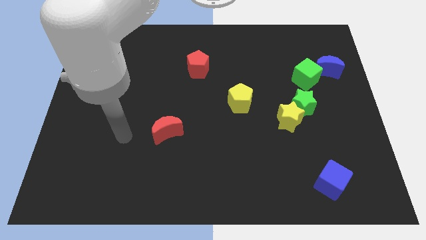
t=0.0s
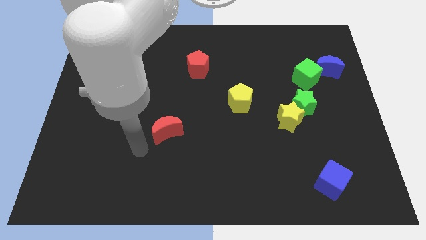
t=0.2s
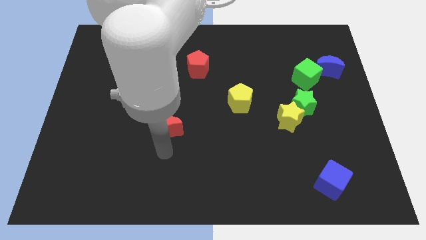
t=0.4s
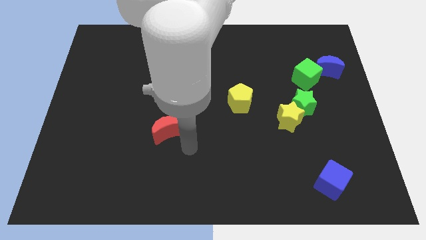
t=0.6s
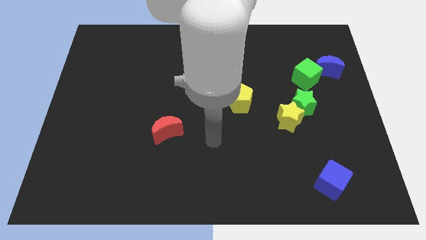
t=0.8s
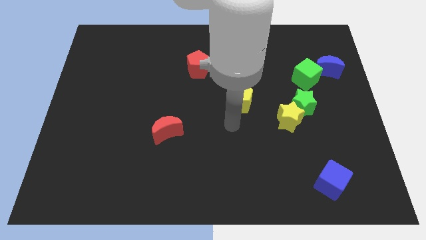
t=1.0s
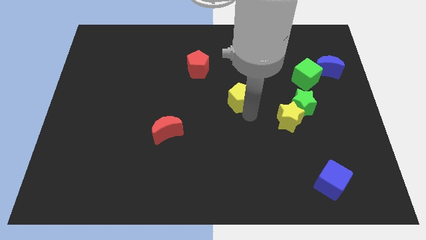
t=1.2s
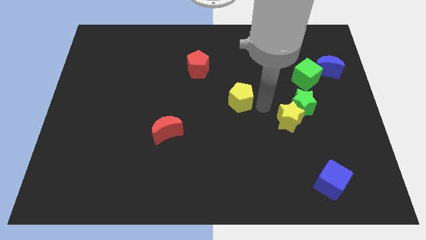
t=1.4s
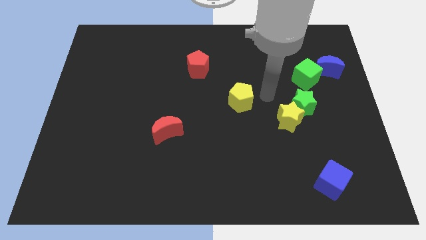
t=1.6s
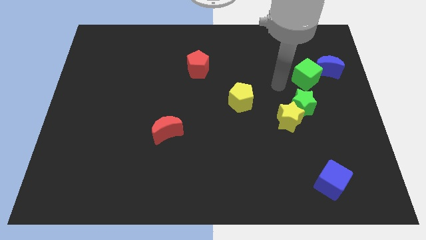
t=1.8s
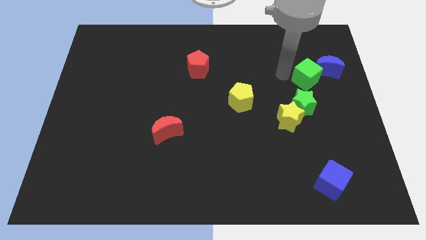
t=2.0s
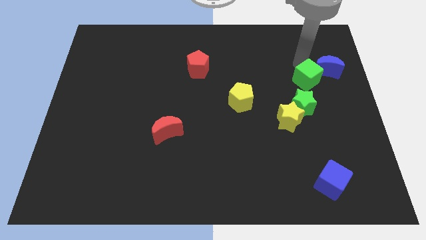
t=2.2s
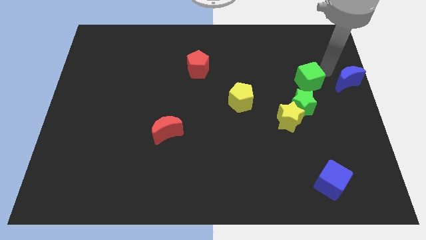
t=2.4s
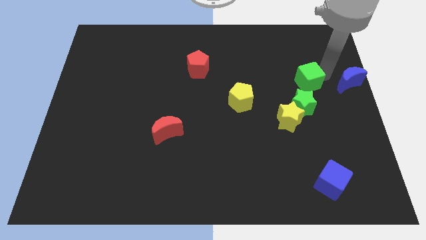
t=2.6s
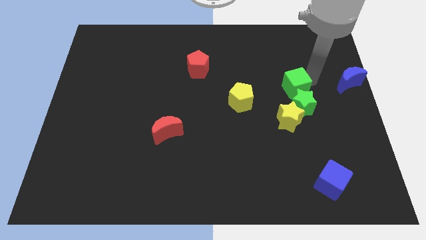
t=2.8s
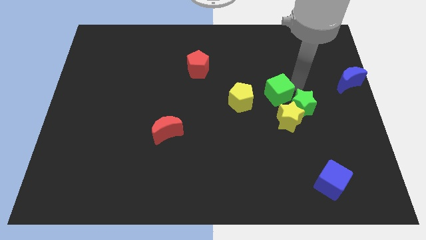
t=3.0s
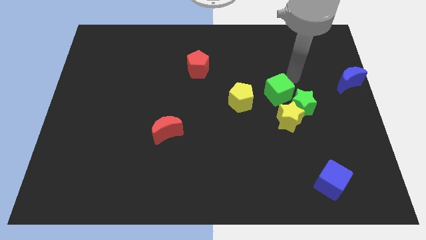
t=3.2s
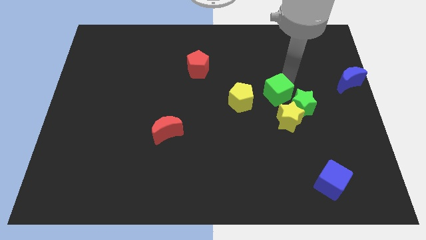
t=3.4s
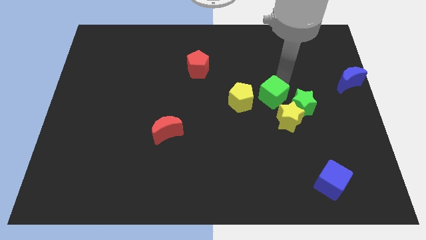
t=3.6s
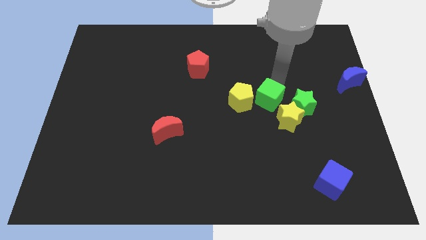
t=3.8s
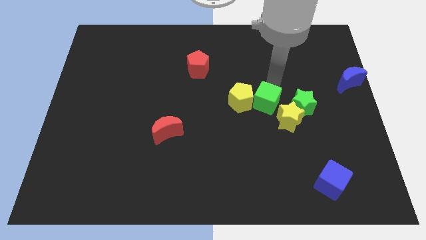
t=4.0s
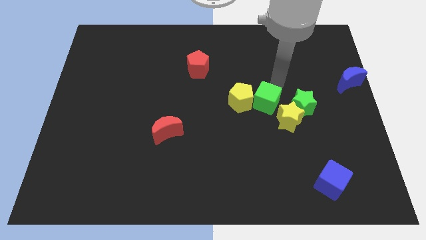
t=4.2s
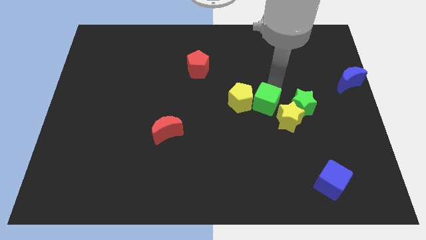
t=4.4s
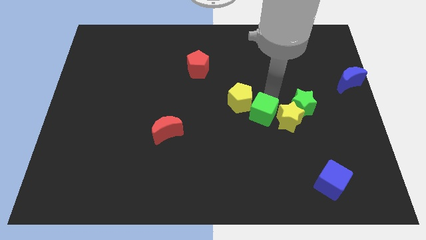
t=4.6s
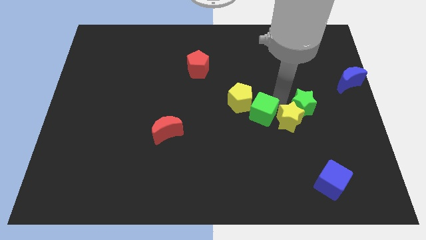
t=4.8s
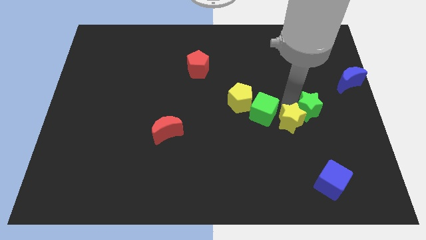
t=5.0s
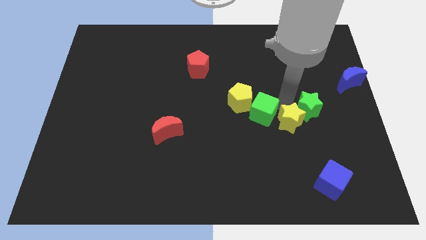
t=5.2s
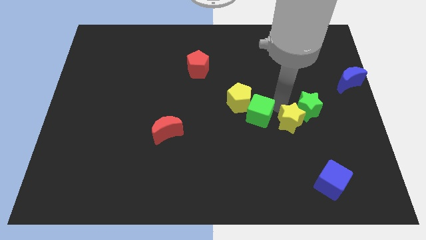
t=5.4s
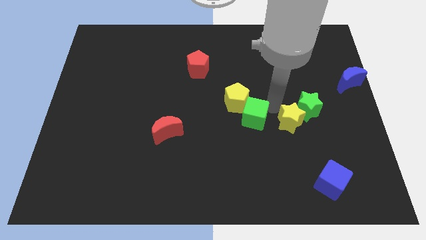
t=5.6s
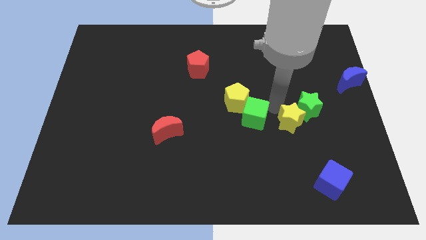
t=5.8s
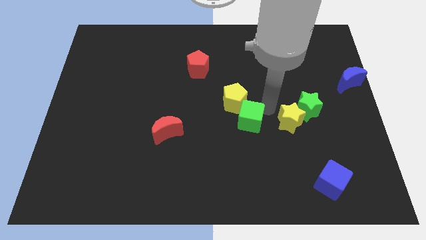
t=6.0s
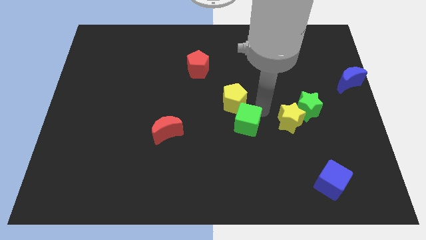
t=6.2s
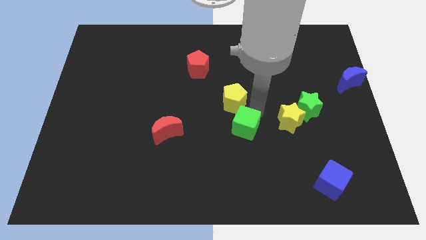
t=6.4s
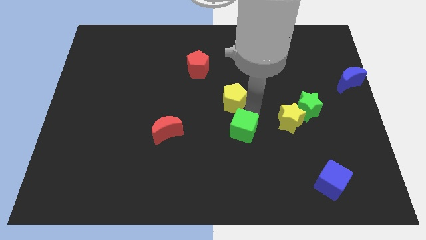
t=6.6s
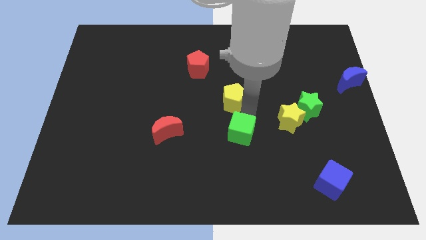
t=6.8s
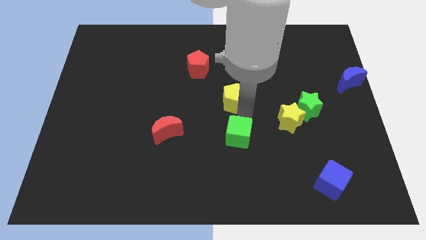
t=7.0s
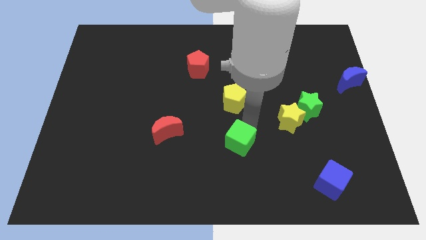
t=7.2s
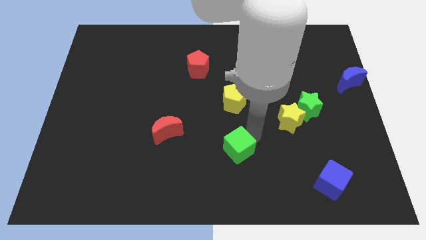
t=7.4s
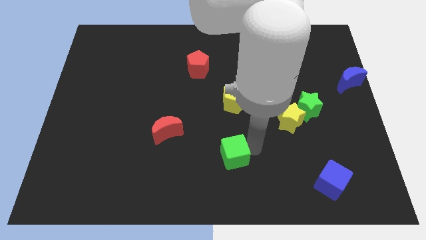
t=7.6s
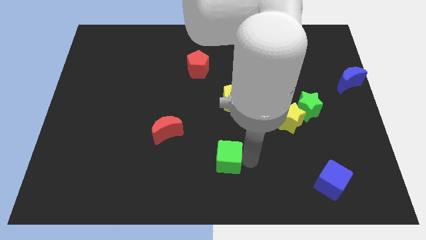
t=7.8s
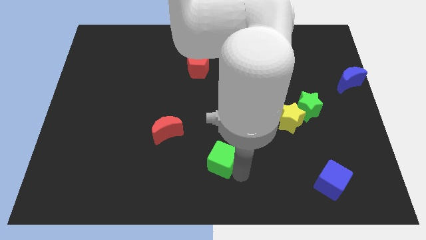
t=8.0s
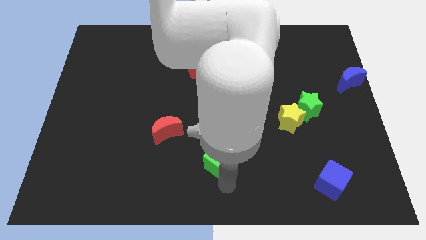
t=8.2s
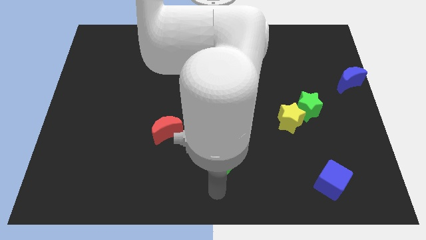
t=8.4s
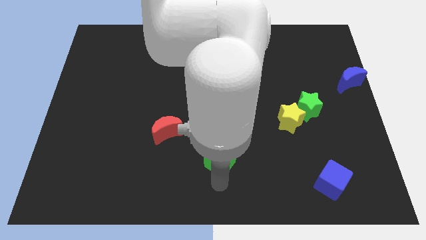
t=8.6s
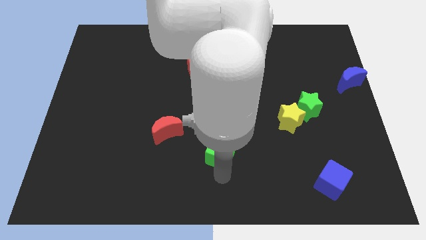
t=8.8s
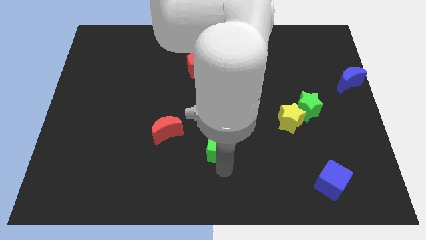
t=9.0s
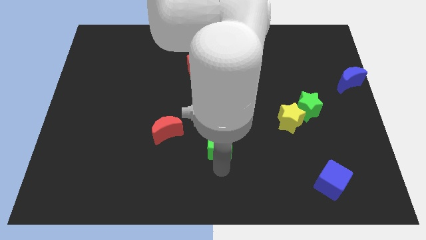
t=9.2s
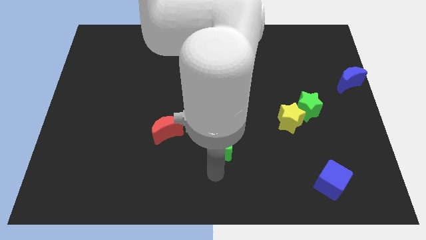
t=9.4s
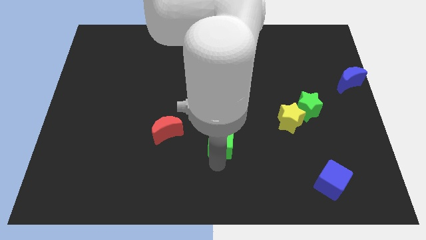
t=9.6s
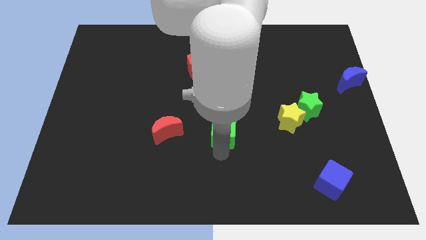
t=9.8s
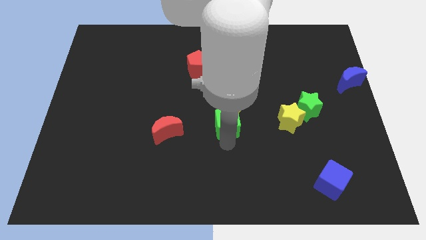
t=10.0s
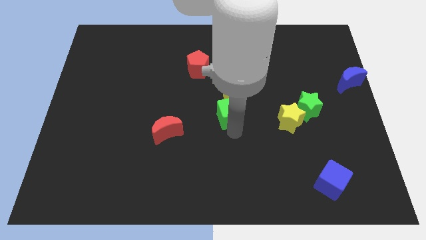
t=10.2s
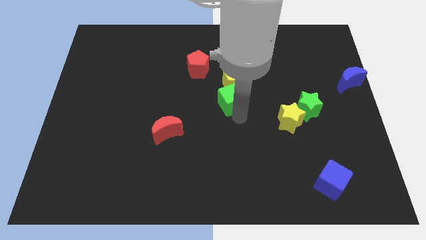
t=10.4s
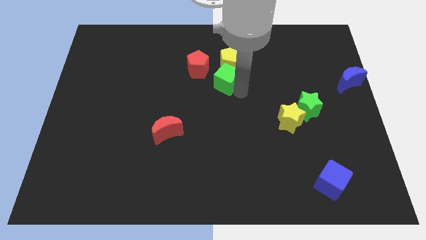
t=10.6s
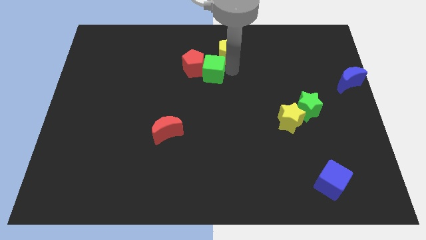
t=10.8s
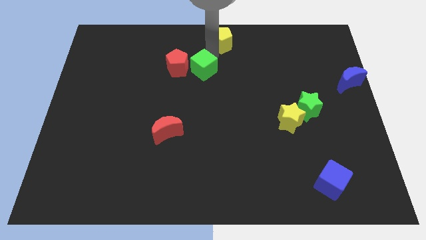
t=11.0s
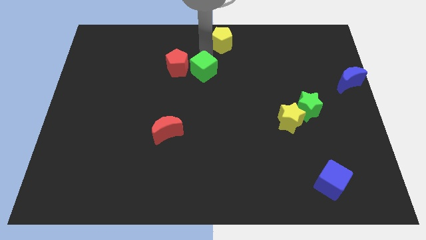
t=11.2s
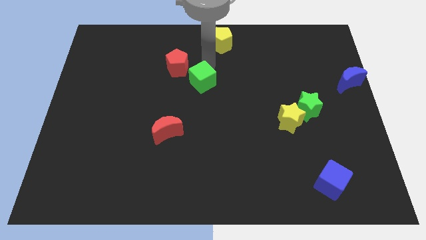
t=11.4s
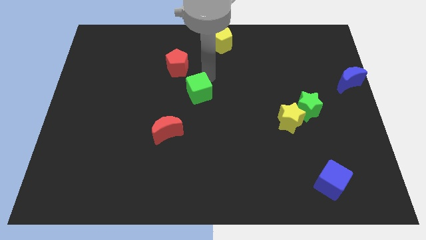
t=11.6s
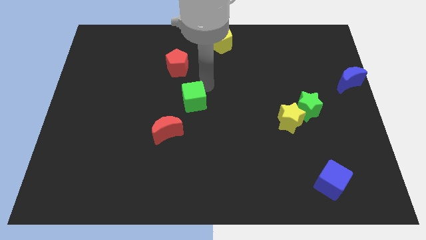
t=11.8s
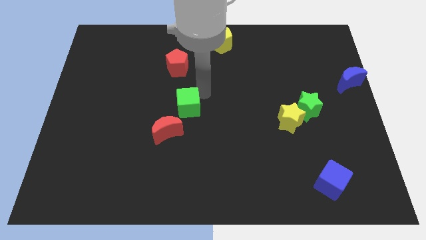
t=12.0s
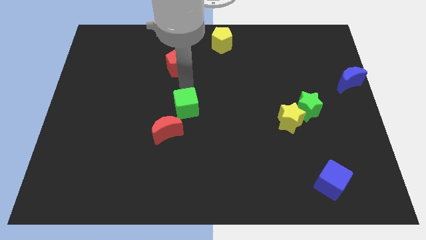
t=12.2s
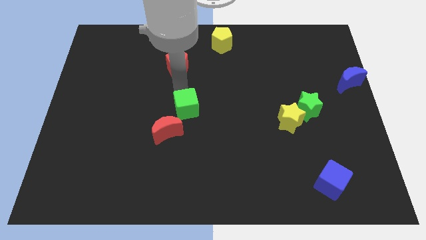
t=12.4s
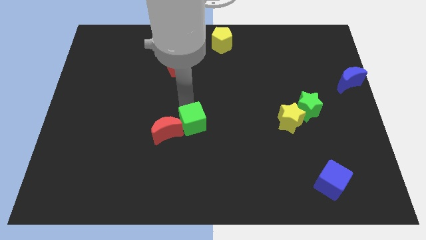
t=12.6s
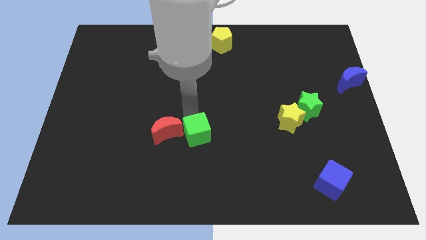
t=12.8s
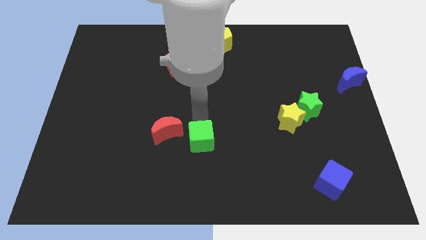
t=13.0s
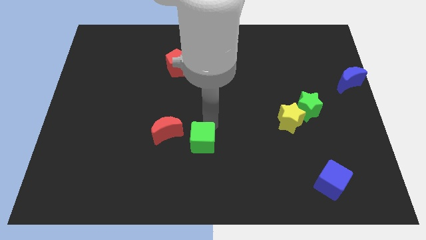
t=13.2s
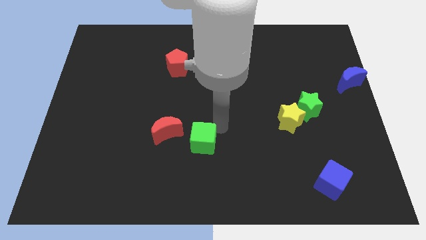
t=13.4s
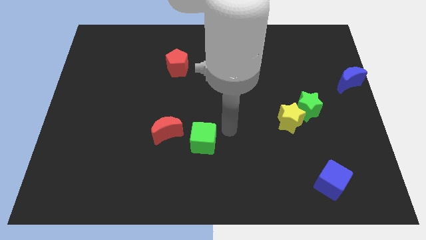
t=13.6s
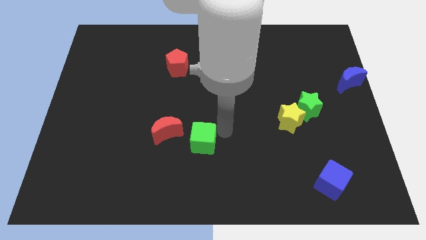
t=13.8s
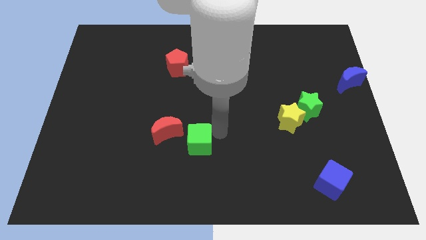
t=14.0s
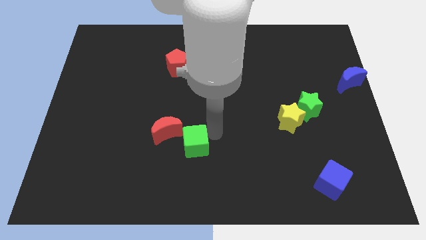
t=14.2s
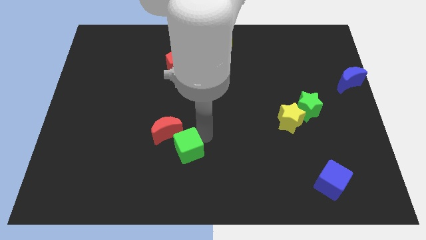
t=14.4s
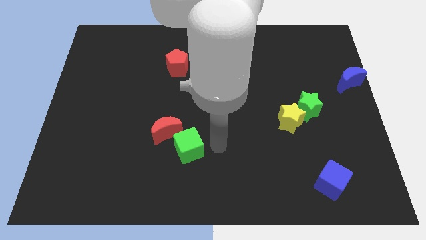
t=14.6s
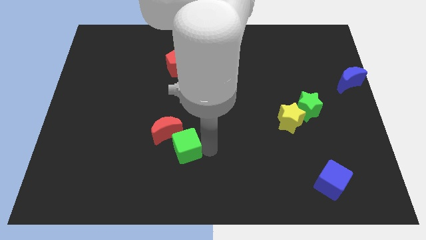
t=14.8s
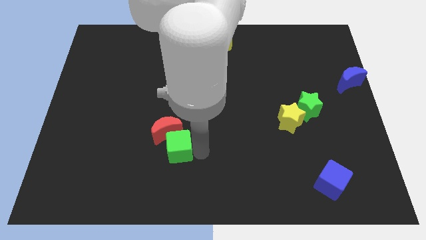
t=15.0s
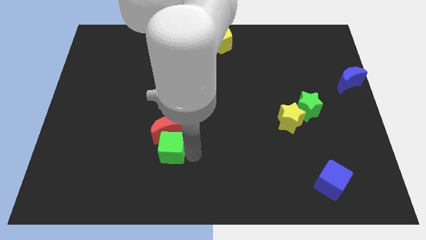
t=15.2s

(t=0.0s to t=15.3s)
slide the green cube diagonally down and to the left of the red moon

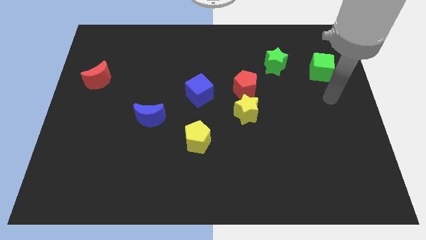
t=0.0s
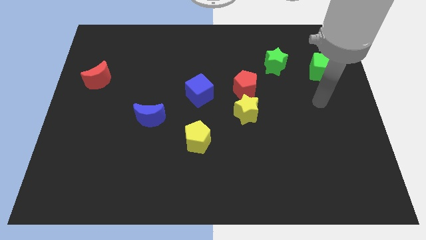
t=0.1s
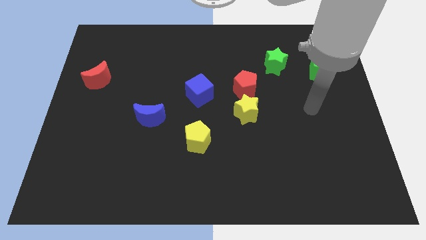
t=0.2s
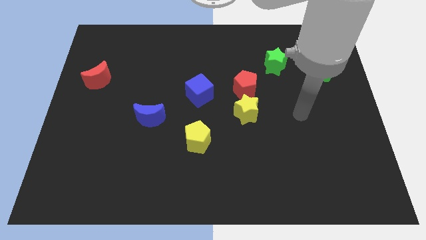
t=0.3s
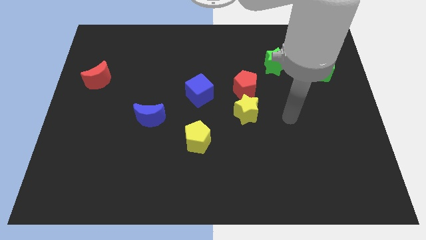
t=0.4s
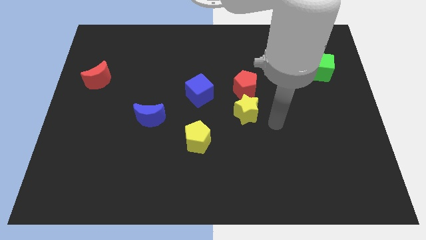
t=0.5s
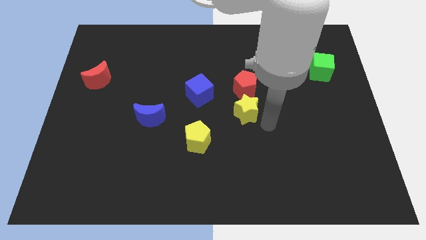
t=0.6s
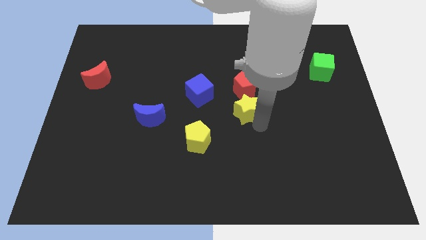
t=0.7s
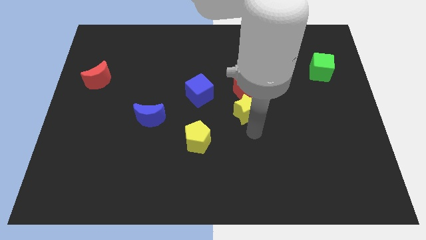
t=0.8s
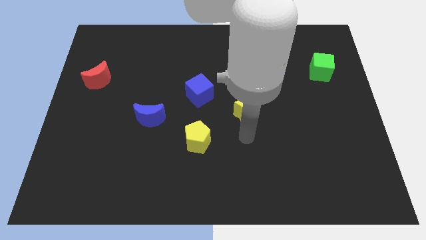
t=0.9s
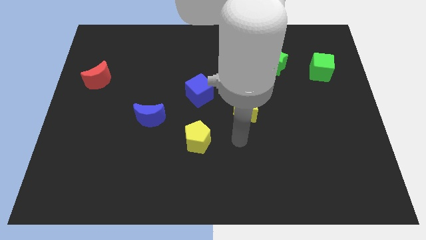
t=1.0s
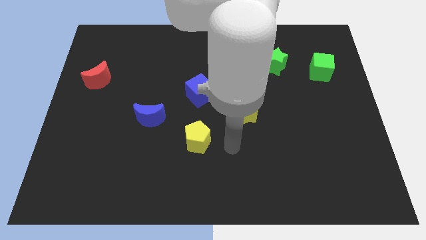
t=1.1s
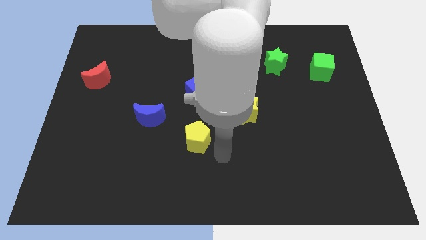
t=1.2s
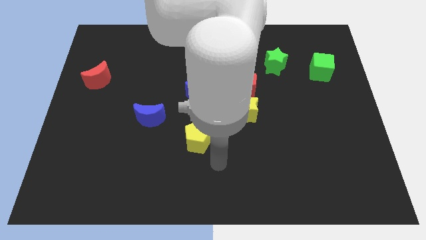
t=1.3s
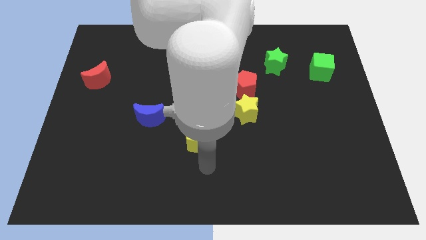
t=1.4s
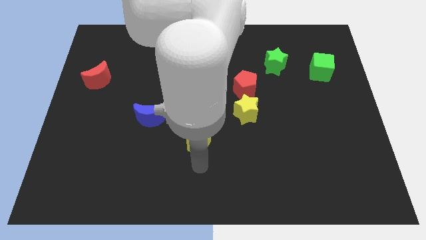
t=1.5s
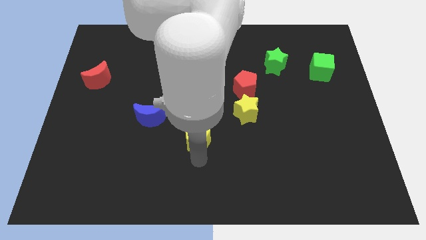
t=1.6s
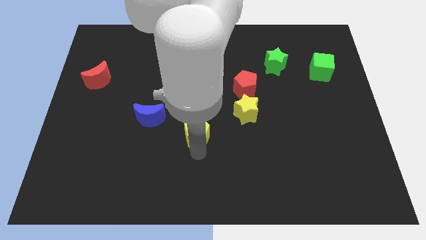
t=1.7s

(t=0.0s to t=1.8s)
push the yellow pentagon to the right of the blue moon
